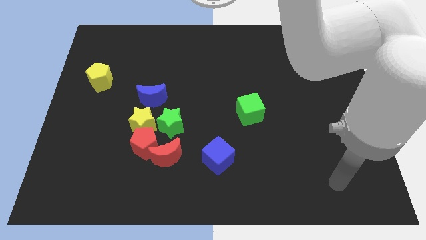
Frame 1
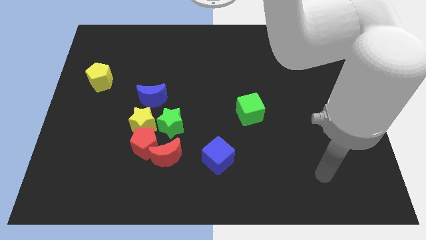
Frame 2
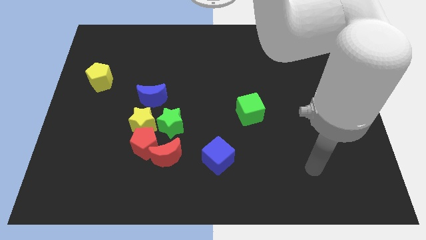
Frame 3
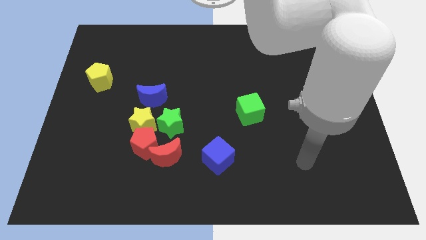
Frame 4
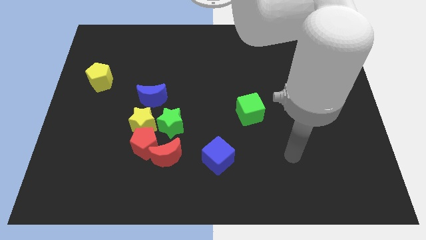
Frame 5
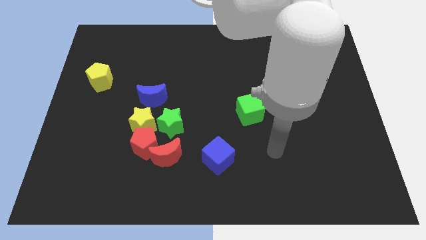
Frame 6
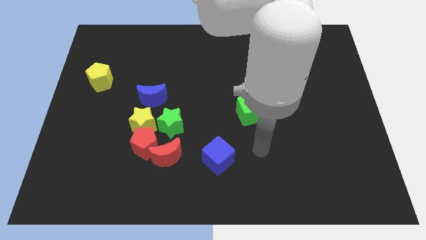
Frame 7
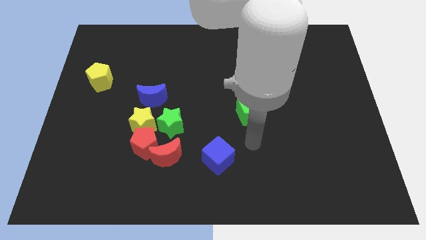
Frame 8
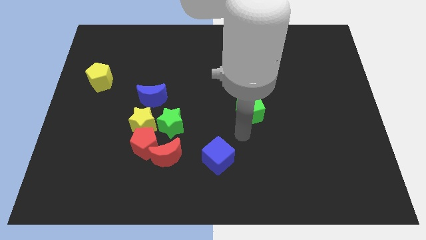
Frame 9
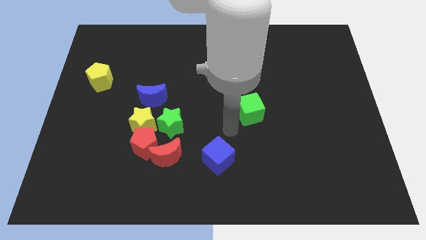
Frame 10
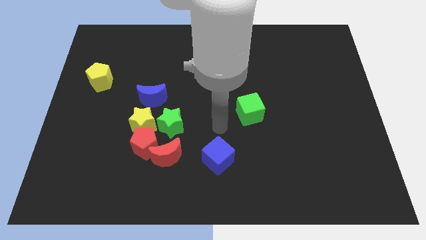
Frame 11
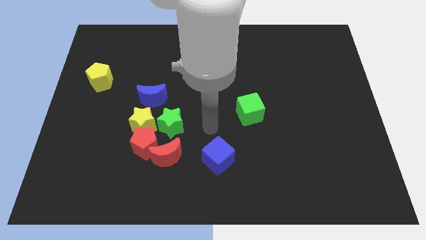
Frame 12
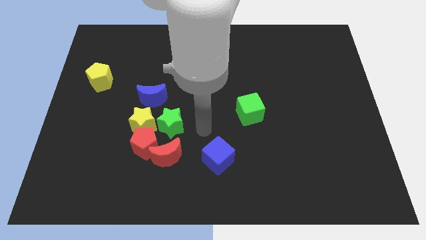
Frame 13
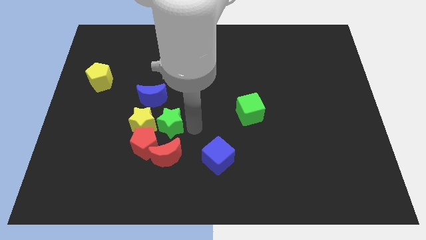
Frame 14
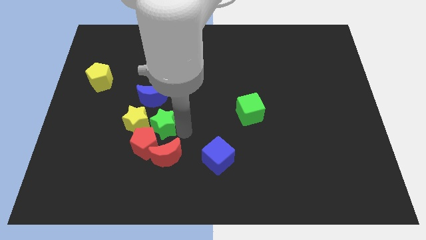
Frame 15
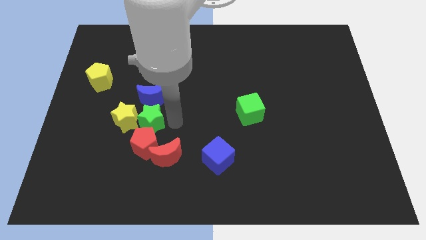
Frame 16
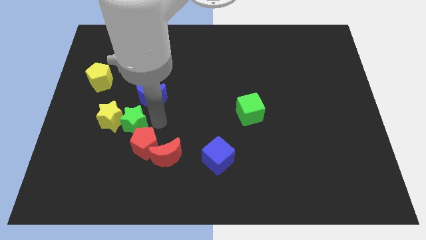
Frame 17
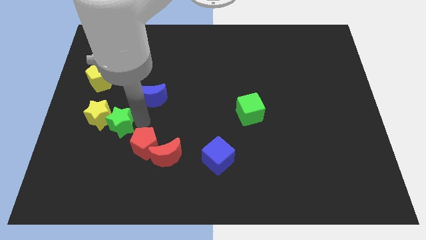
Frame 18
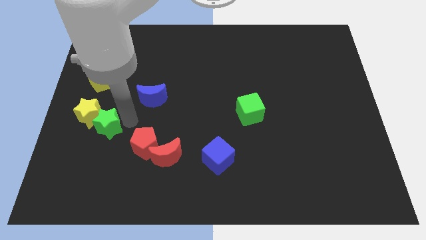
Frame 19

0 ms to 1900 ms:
move the yellow star away from the group

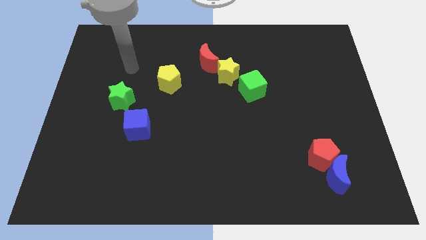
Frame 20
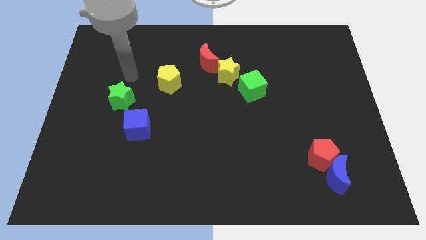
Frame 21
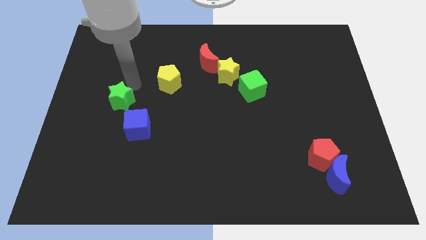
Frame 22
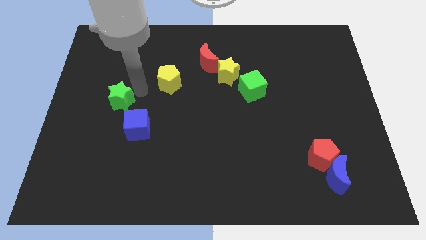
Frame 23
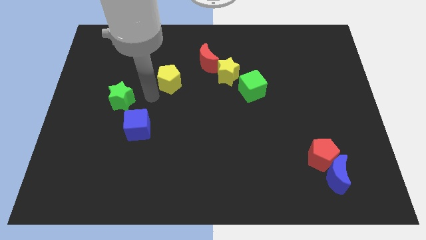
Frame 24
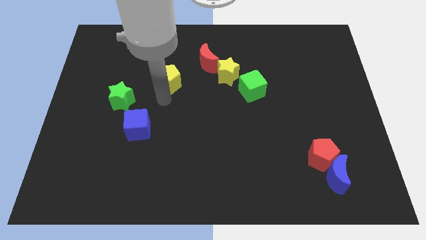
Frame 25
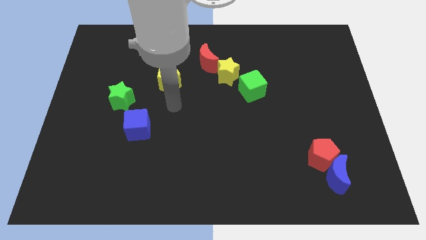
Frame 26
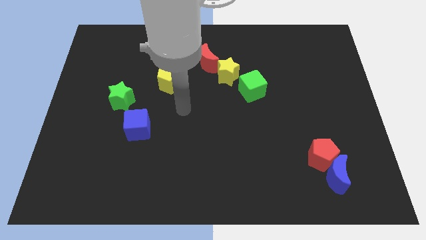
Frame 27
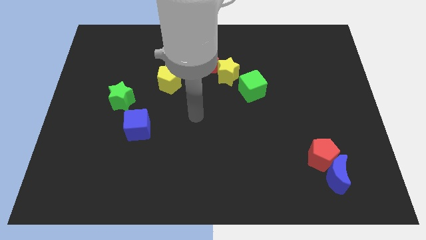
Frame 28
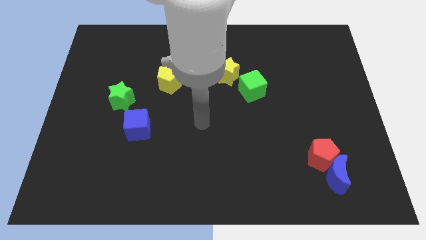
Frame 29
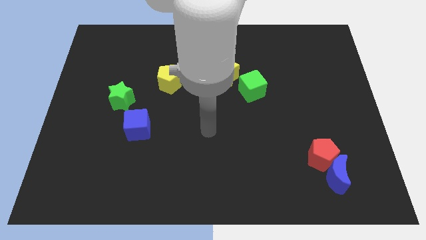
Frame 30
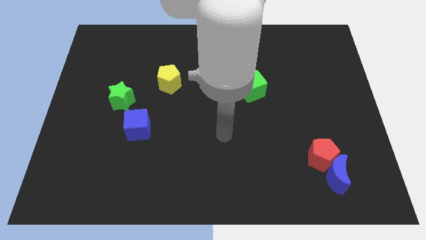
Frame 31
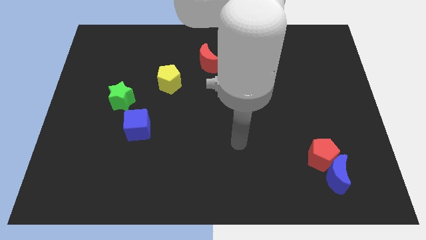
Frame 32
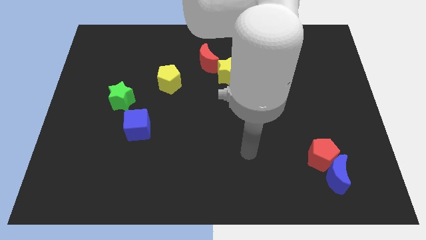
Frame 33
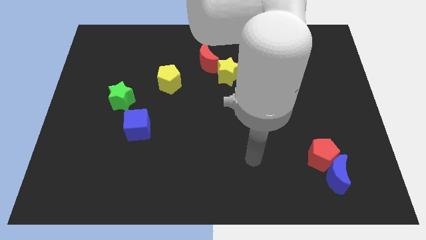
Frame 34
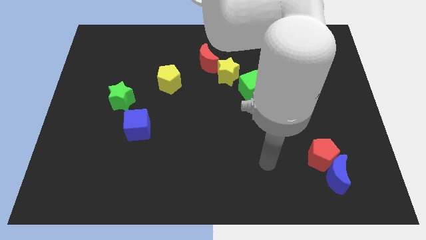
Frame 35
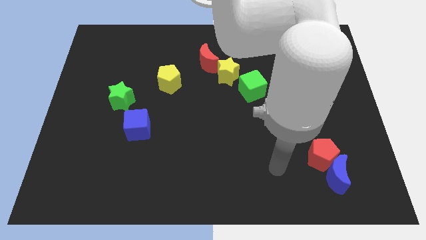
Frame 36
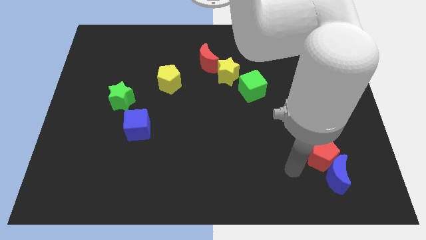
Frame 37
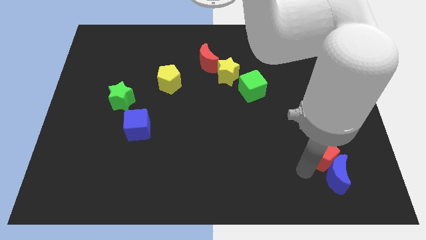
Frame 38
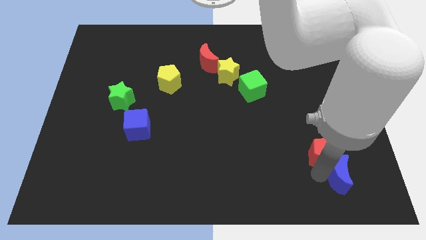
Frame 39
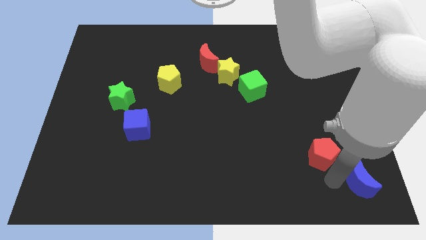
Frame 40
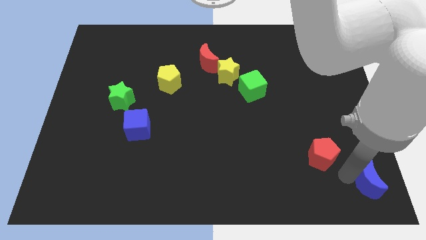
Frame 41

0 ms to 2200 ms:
pull the red pentagon apart from the blue moon

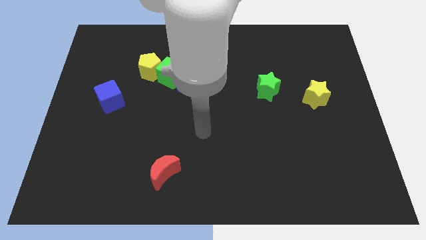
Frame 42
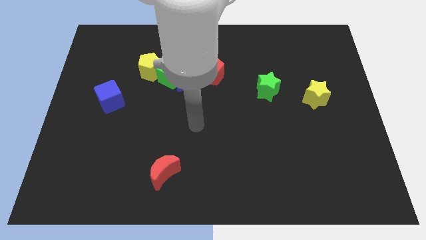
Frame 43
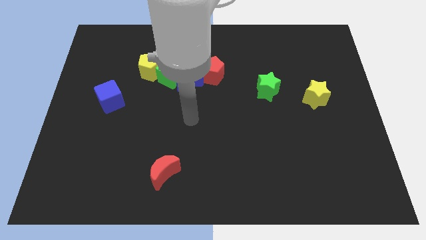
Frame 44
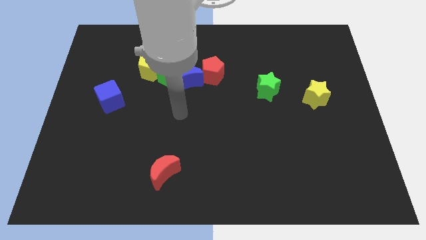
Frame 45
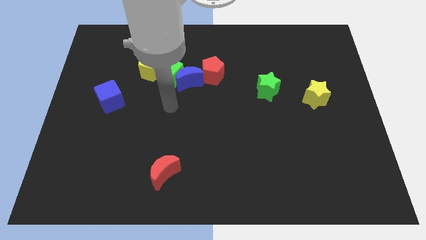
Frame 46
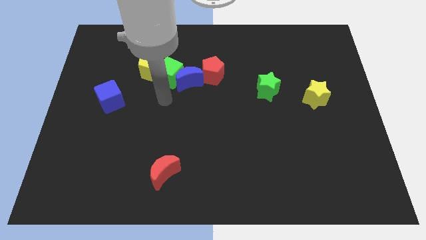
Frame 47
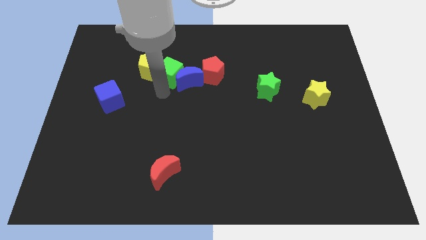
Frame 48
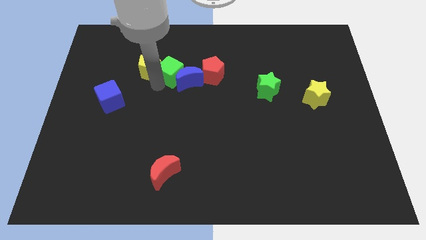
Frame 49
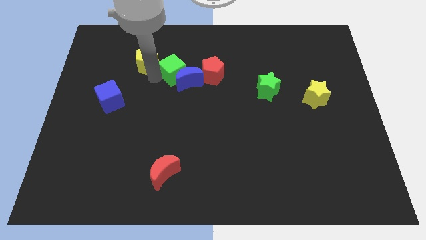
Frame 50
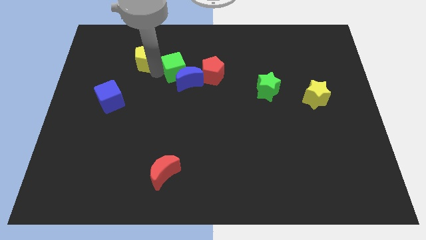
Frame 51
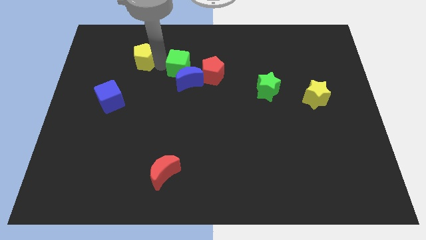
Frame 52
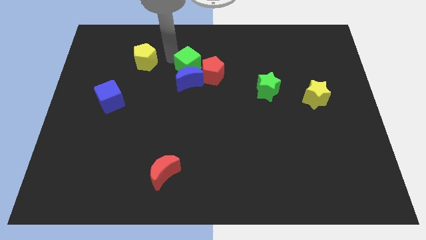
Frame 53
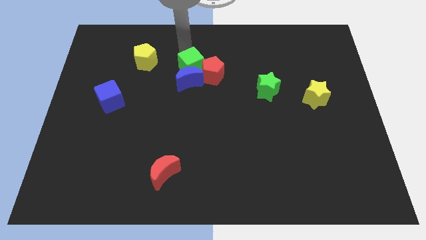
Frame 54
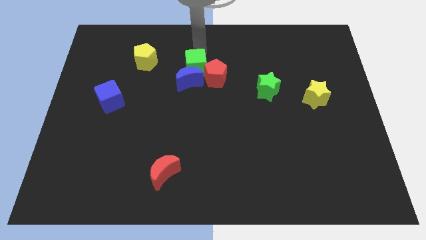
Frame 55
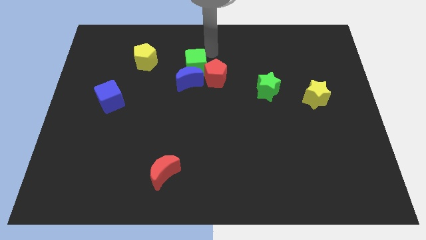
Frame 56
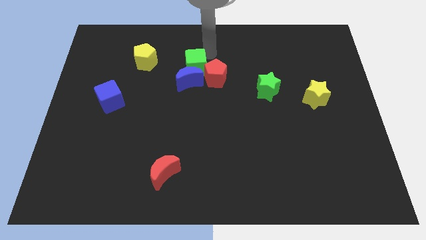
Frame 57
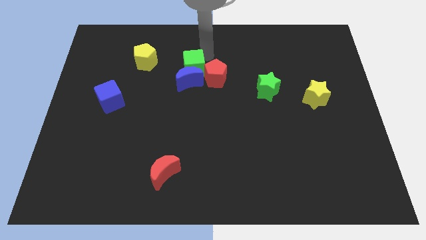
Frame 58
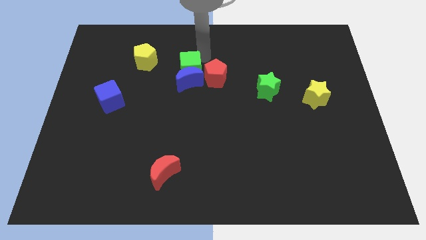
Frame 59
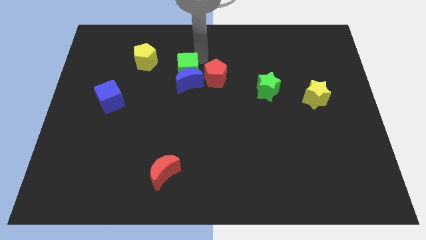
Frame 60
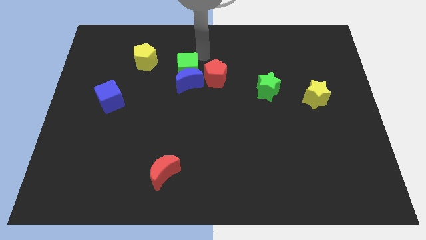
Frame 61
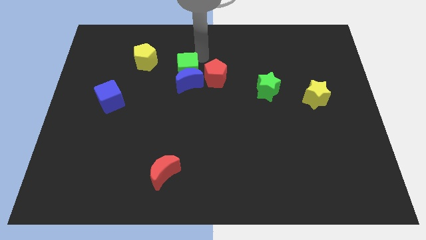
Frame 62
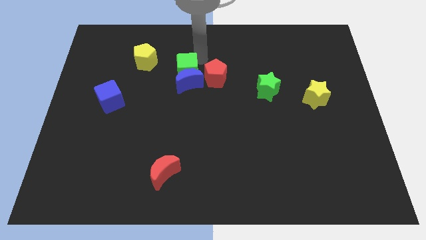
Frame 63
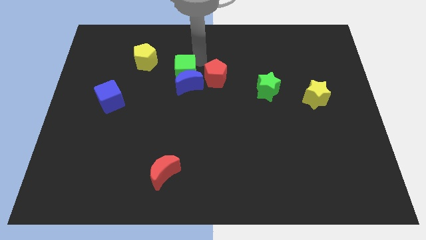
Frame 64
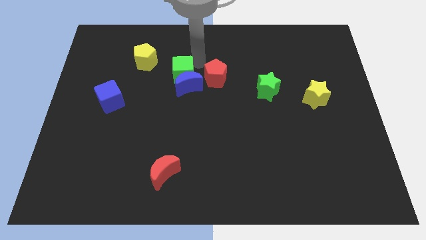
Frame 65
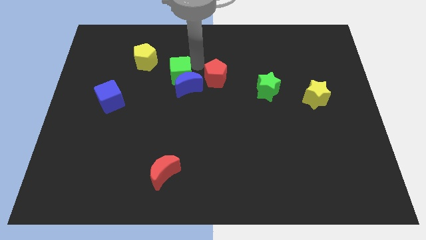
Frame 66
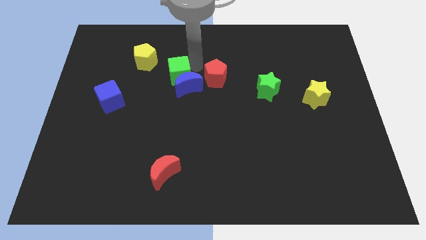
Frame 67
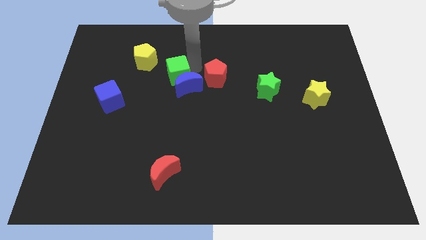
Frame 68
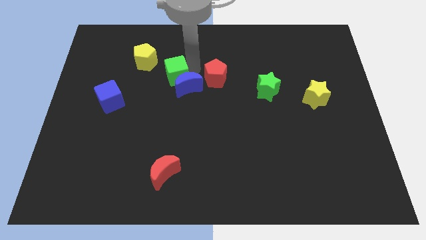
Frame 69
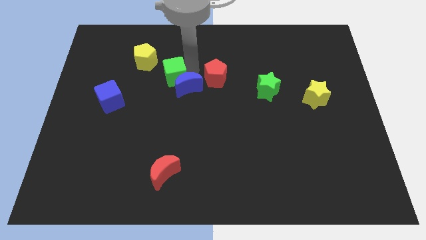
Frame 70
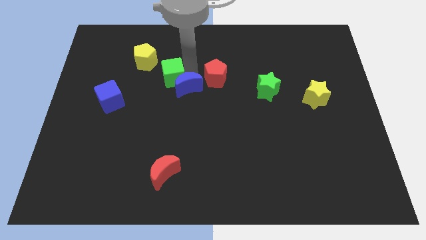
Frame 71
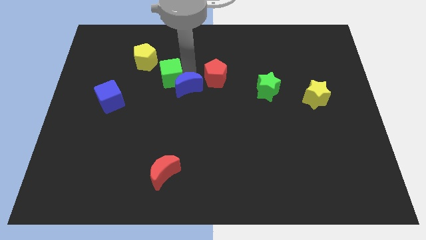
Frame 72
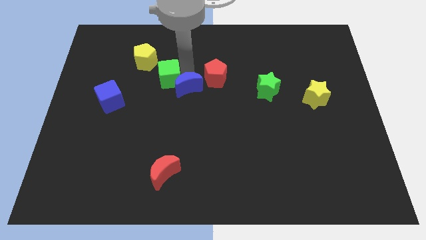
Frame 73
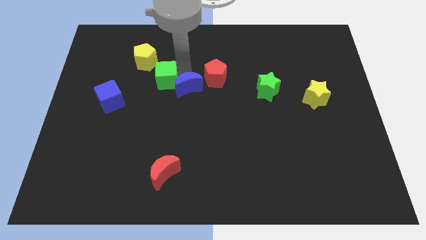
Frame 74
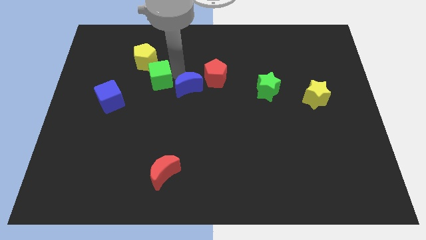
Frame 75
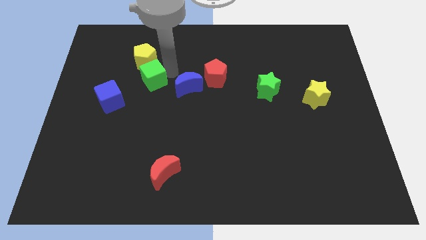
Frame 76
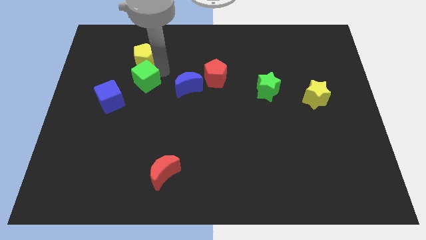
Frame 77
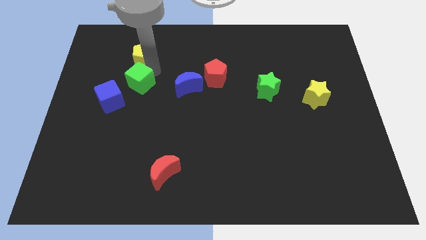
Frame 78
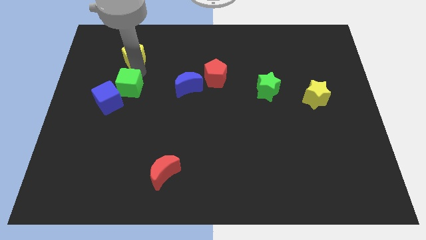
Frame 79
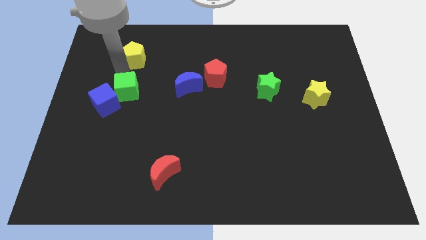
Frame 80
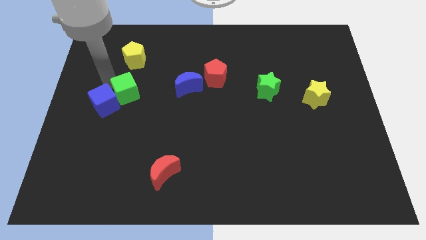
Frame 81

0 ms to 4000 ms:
pull the green cube apart from the blue moon and yellow pentagon

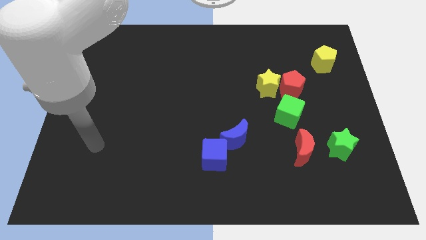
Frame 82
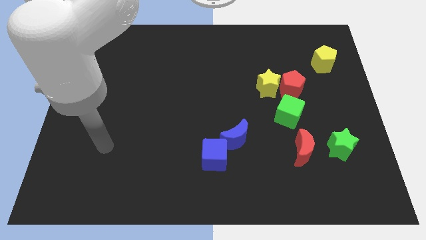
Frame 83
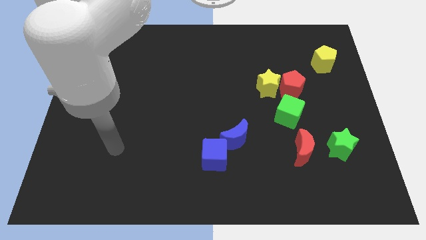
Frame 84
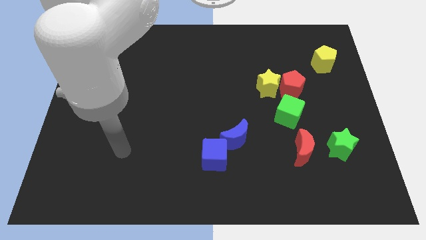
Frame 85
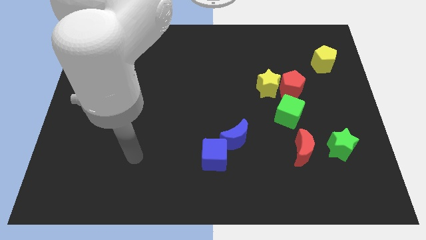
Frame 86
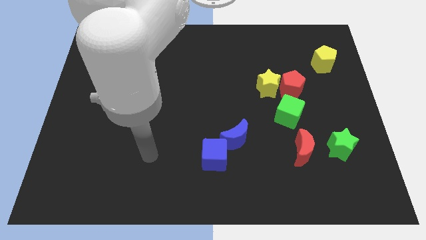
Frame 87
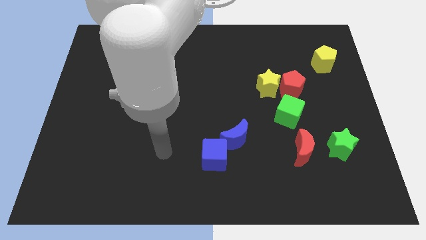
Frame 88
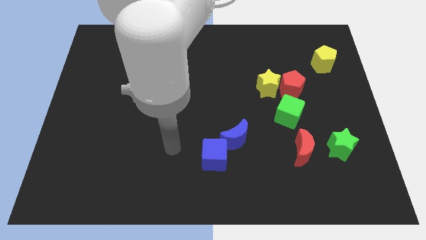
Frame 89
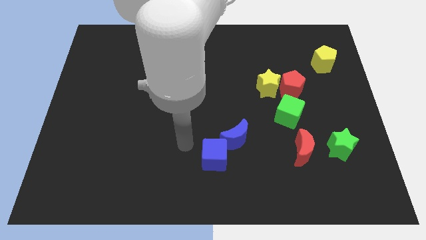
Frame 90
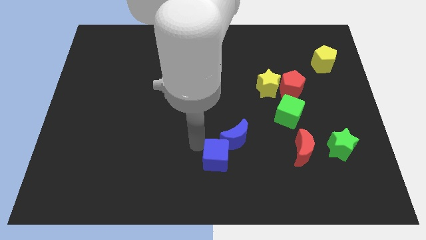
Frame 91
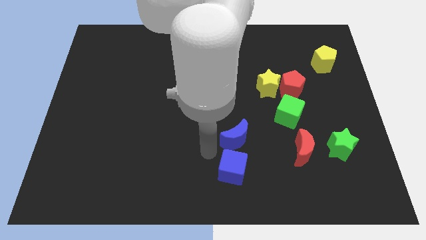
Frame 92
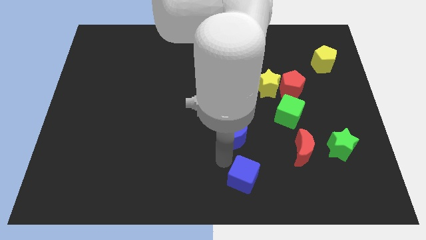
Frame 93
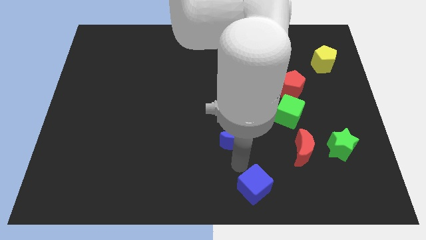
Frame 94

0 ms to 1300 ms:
separate the blue moon from the blue cube
